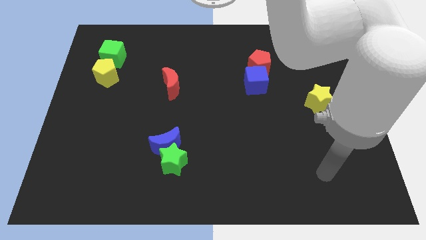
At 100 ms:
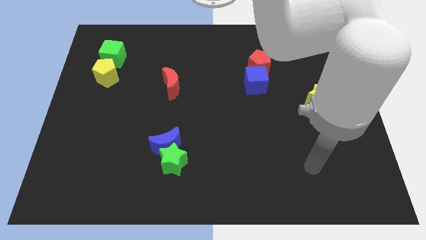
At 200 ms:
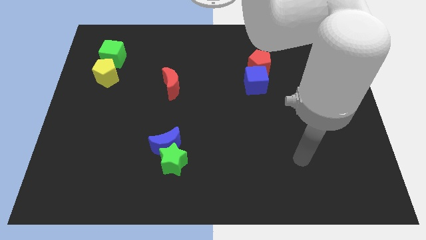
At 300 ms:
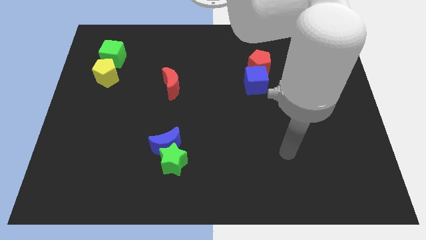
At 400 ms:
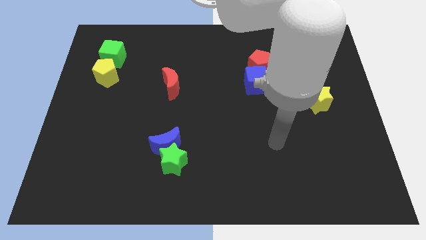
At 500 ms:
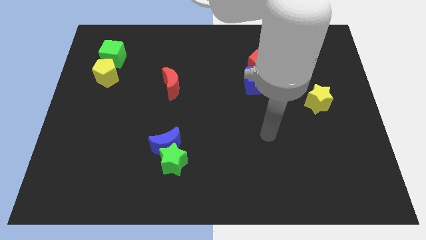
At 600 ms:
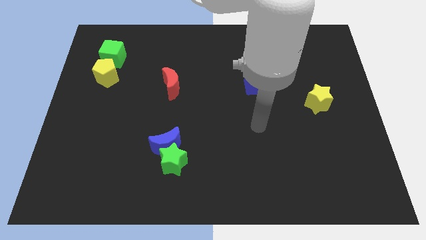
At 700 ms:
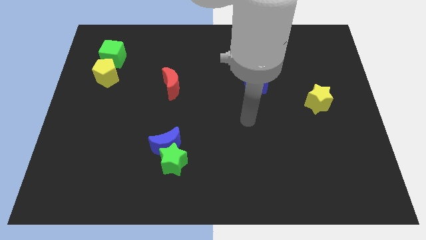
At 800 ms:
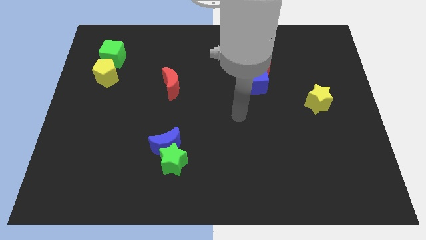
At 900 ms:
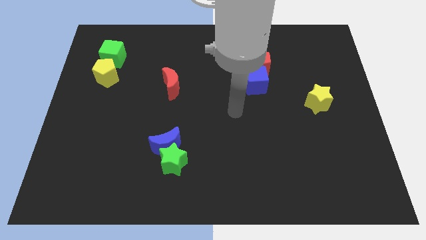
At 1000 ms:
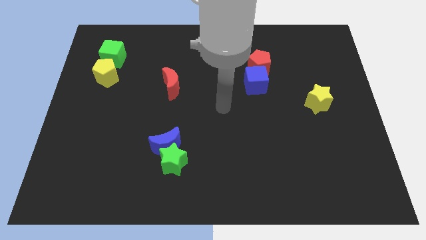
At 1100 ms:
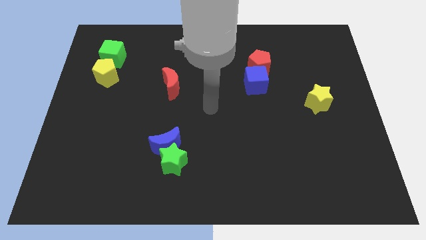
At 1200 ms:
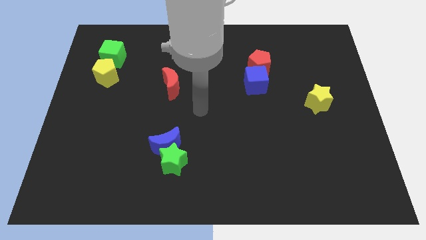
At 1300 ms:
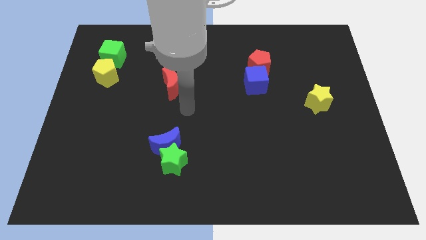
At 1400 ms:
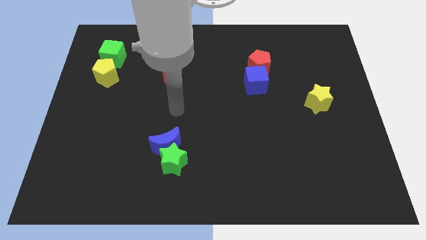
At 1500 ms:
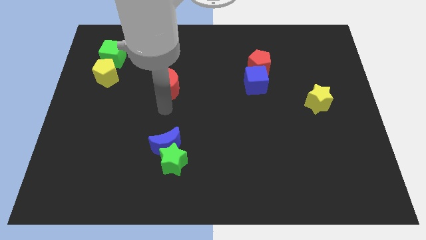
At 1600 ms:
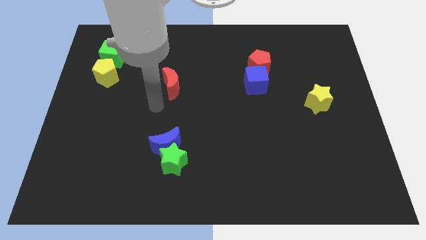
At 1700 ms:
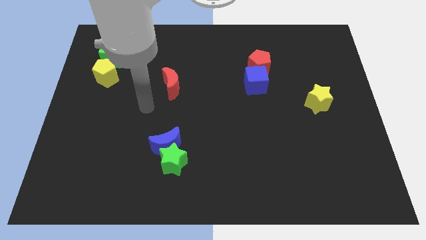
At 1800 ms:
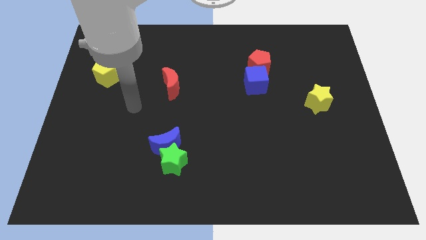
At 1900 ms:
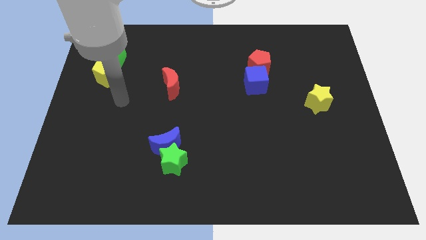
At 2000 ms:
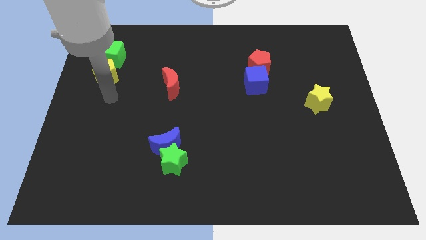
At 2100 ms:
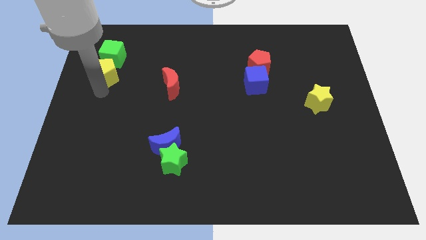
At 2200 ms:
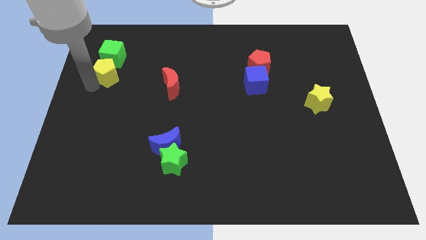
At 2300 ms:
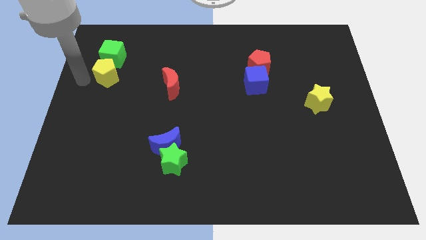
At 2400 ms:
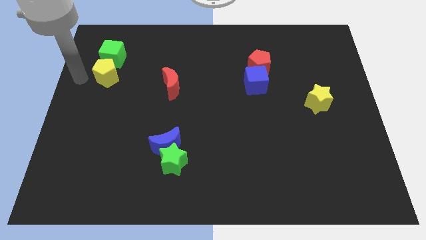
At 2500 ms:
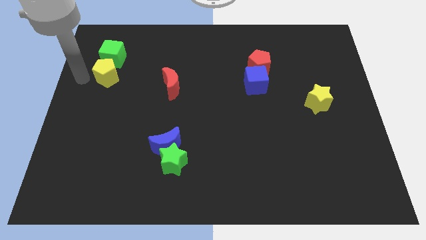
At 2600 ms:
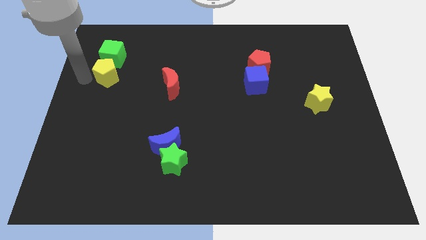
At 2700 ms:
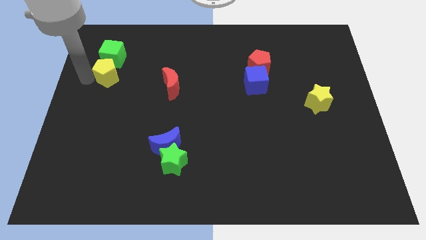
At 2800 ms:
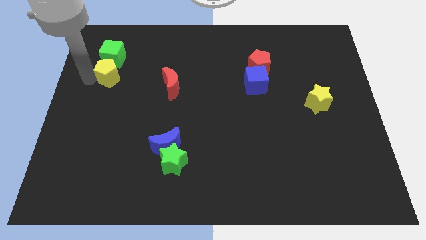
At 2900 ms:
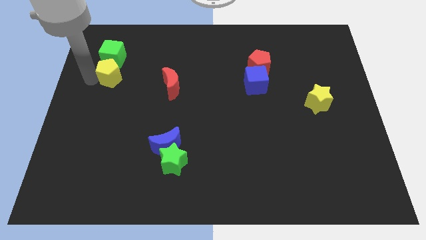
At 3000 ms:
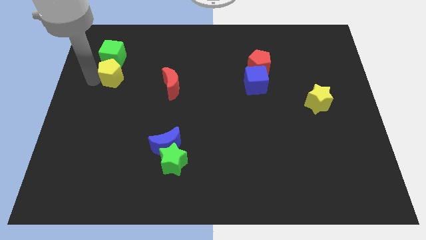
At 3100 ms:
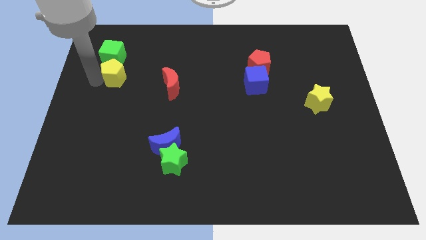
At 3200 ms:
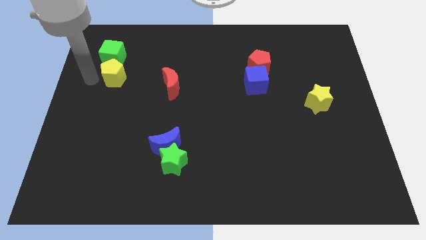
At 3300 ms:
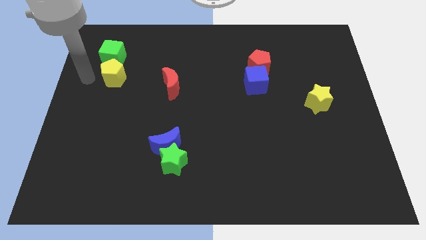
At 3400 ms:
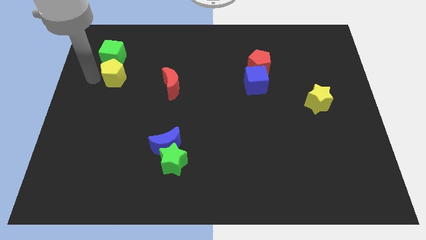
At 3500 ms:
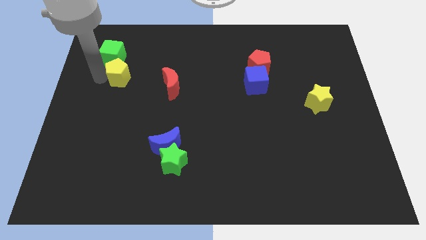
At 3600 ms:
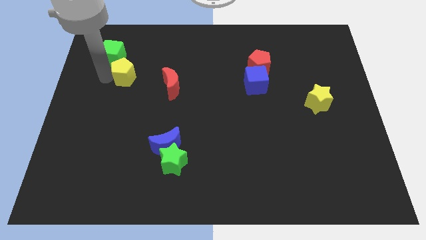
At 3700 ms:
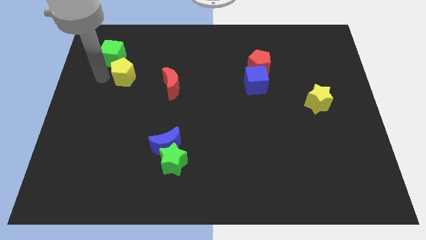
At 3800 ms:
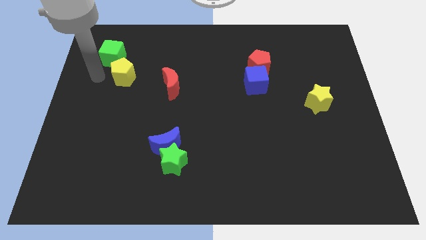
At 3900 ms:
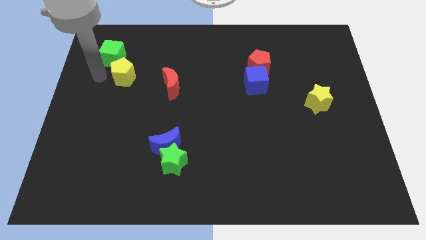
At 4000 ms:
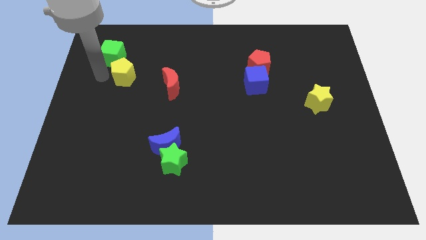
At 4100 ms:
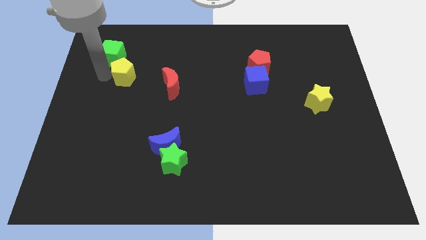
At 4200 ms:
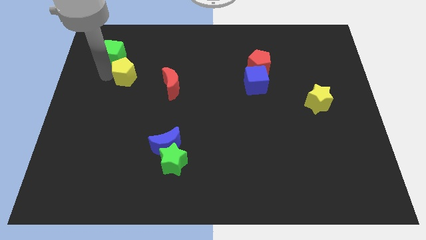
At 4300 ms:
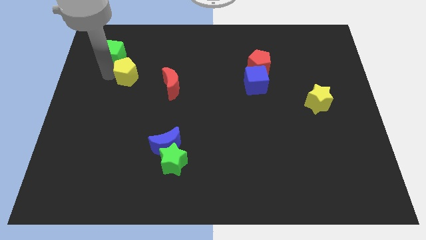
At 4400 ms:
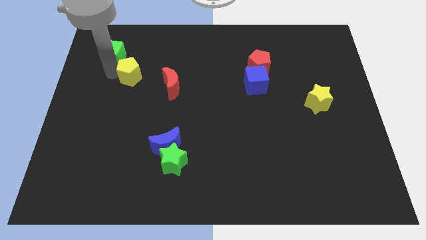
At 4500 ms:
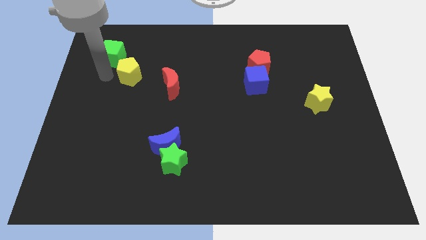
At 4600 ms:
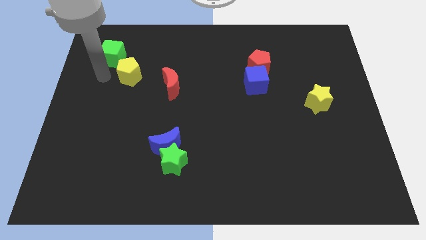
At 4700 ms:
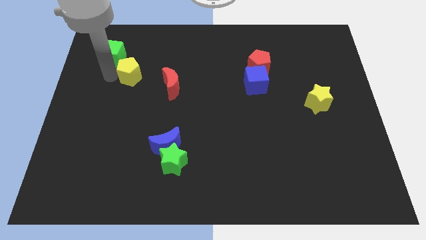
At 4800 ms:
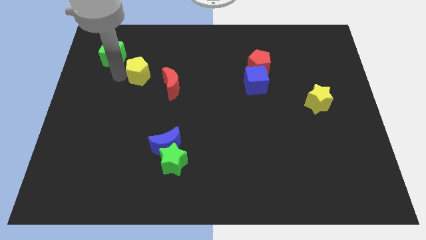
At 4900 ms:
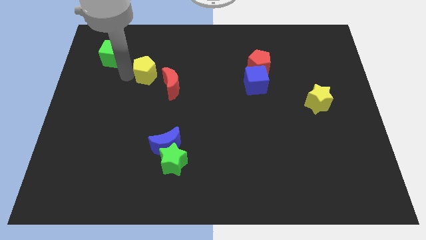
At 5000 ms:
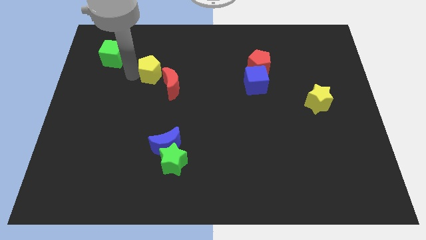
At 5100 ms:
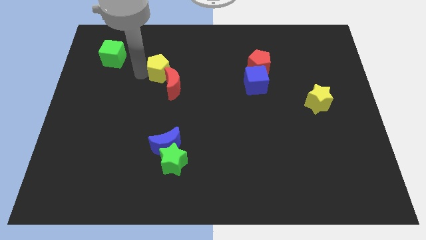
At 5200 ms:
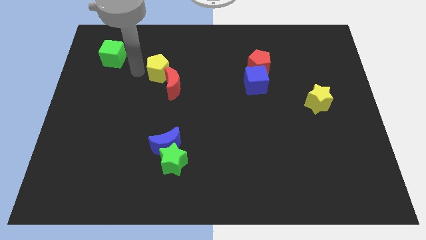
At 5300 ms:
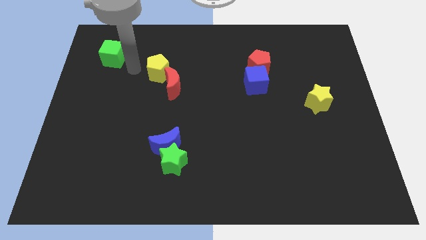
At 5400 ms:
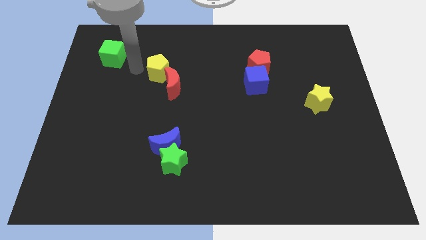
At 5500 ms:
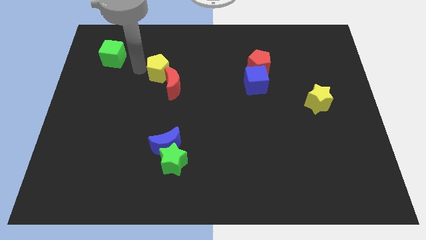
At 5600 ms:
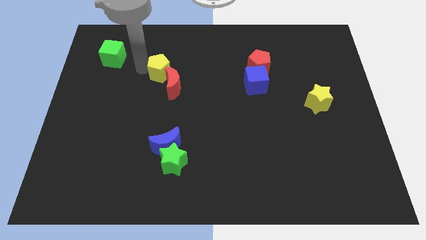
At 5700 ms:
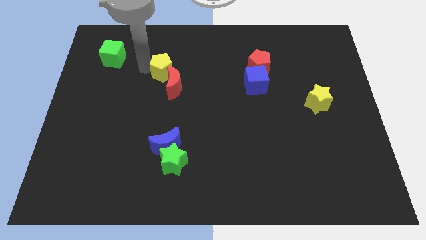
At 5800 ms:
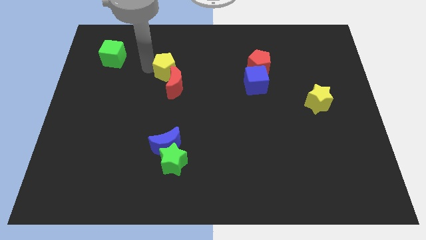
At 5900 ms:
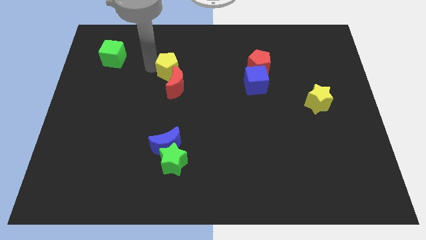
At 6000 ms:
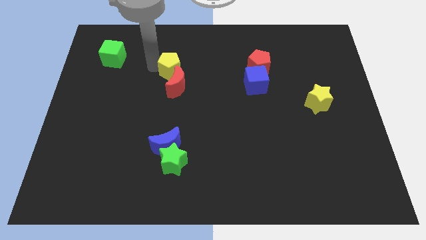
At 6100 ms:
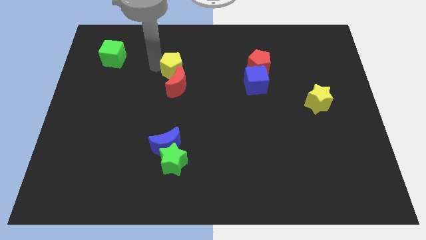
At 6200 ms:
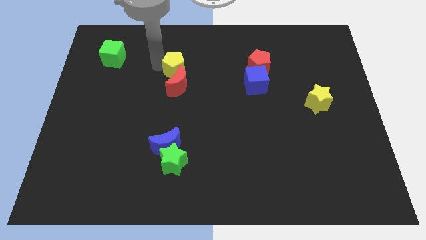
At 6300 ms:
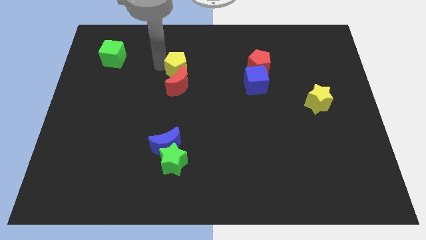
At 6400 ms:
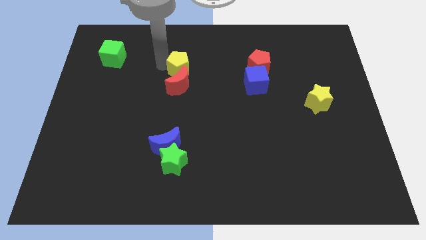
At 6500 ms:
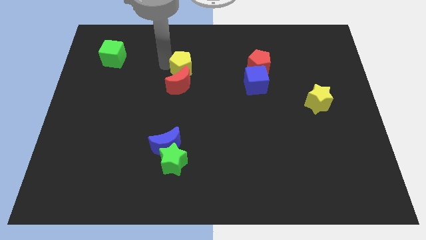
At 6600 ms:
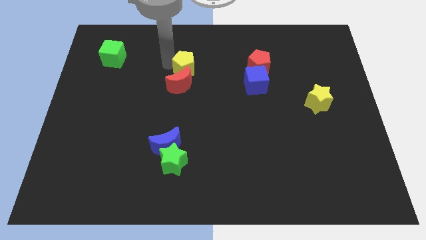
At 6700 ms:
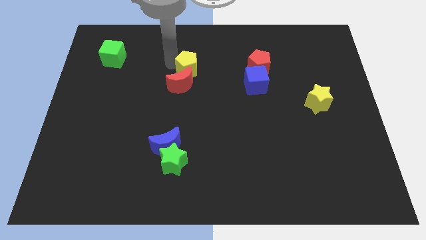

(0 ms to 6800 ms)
move the yellow pentagon to the center
